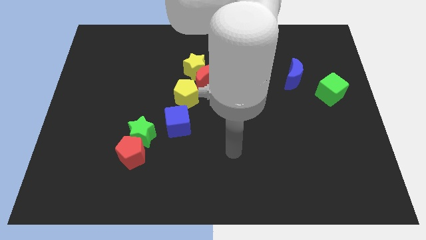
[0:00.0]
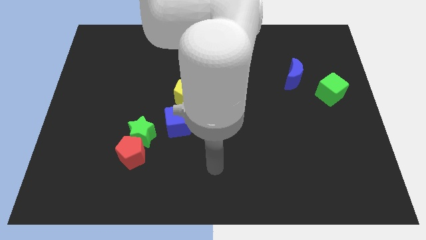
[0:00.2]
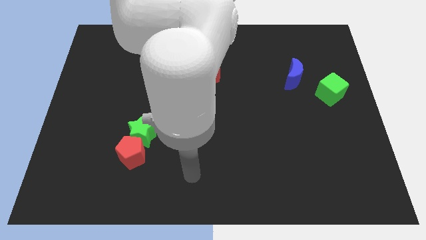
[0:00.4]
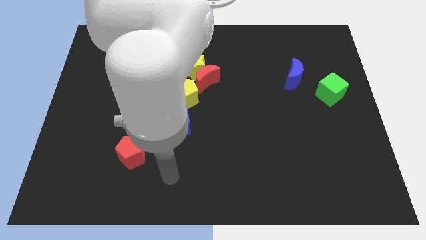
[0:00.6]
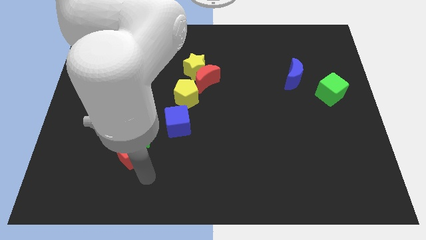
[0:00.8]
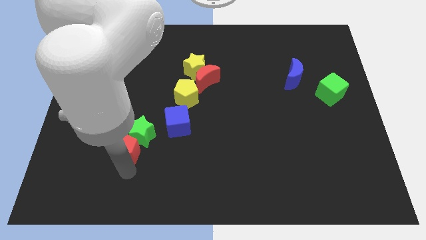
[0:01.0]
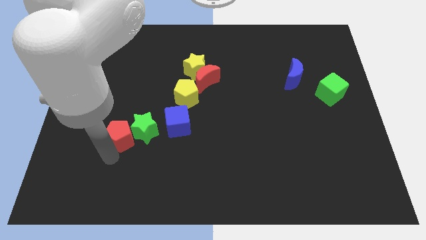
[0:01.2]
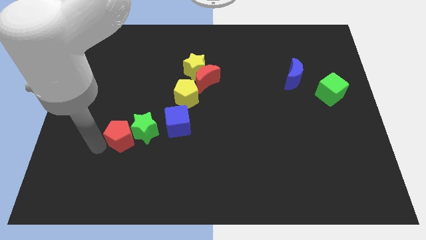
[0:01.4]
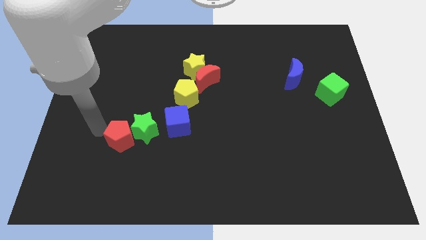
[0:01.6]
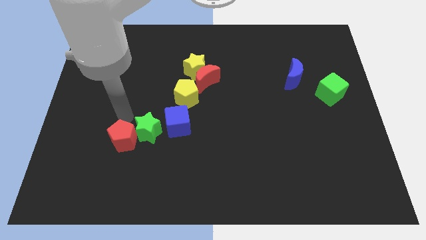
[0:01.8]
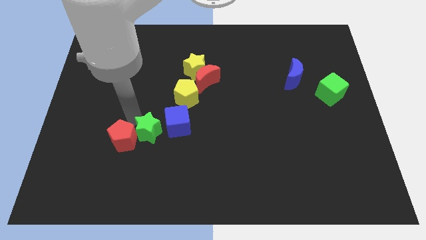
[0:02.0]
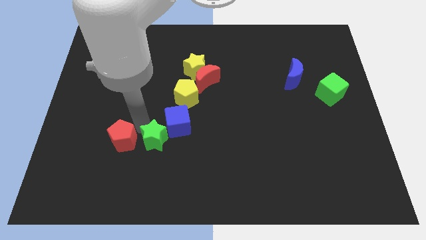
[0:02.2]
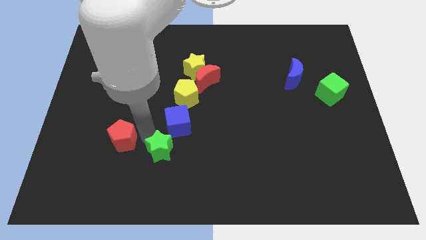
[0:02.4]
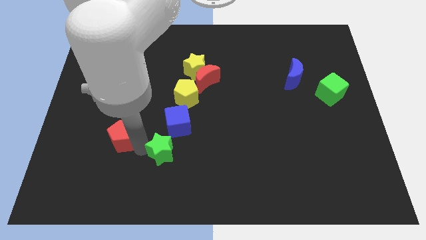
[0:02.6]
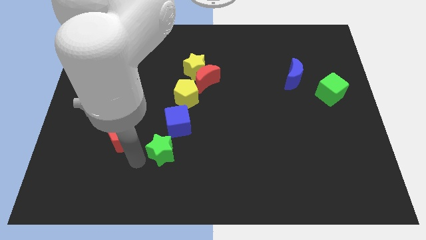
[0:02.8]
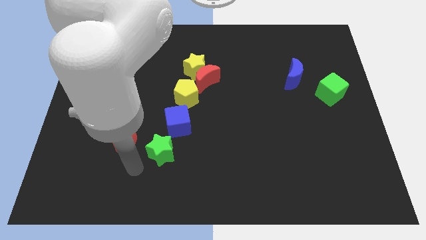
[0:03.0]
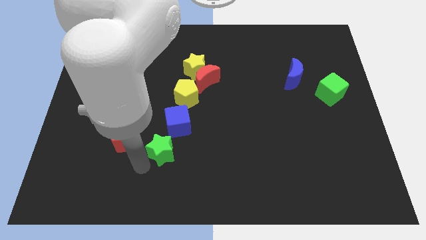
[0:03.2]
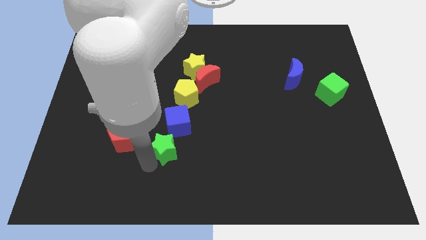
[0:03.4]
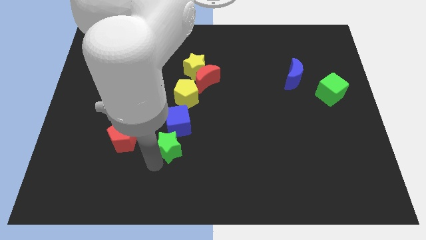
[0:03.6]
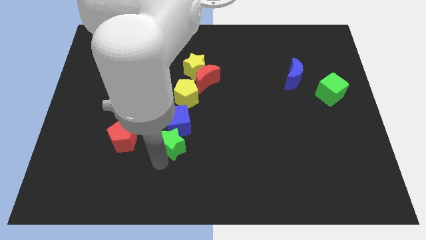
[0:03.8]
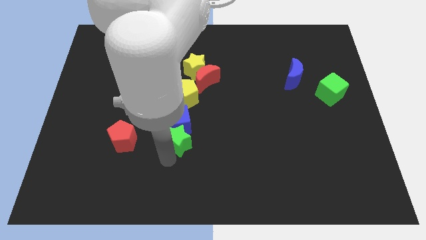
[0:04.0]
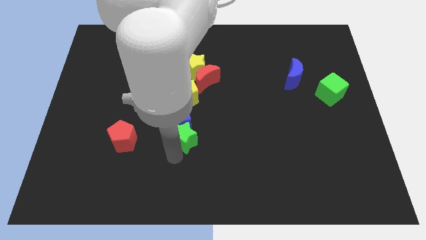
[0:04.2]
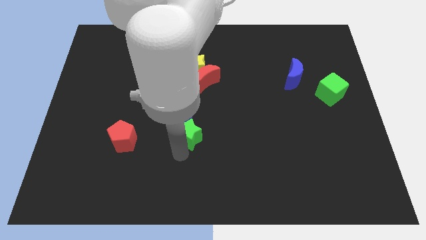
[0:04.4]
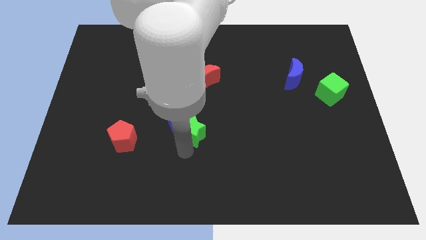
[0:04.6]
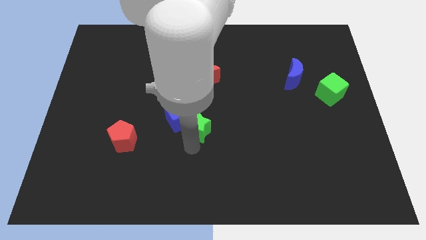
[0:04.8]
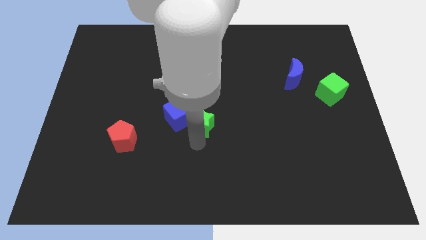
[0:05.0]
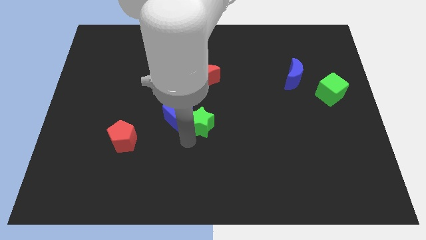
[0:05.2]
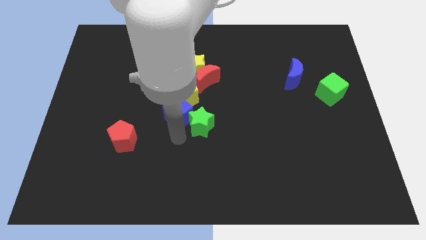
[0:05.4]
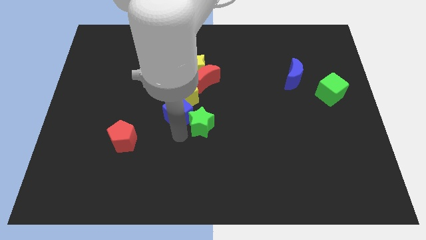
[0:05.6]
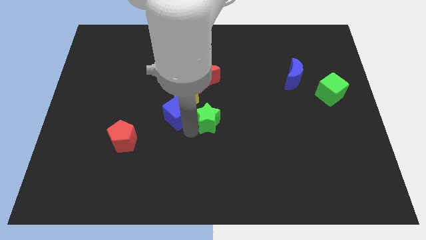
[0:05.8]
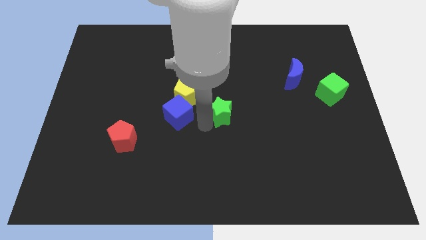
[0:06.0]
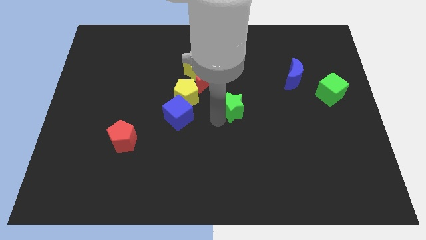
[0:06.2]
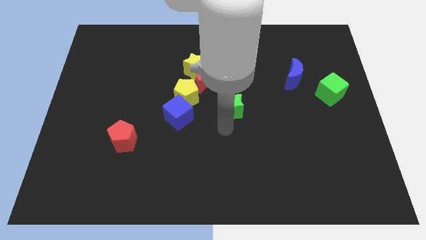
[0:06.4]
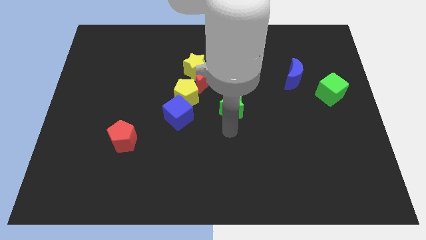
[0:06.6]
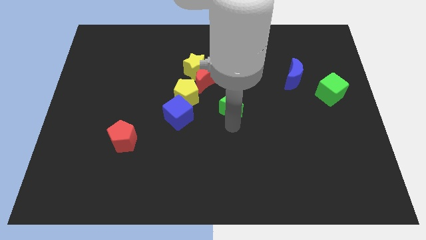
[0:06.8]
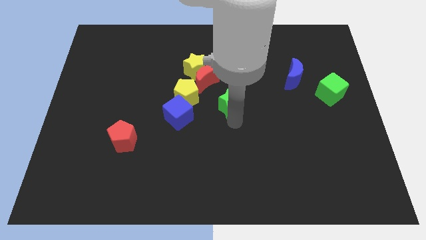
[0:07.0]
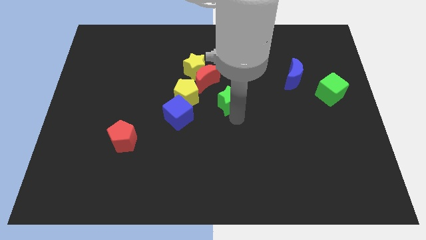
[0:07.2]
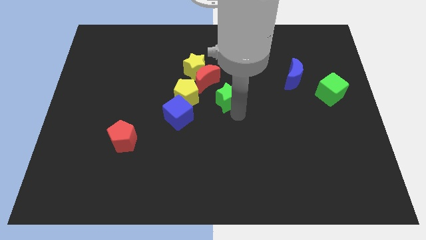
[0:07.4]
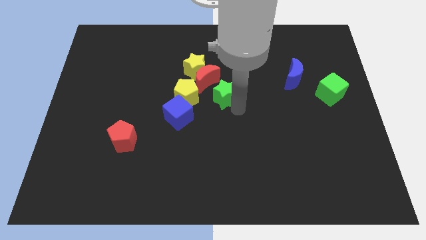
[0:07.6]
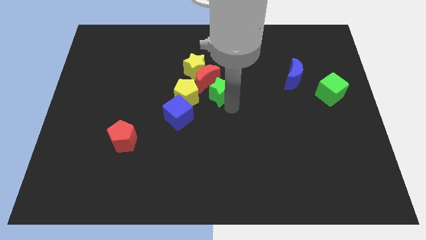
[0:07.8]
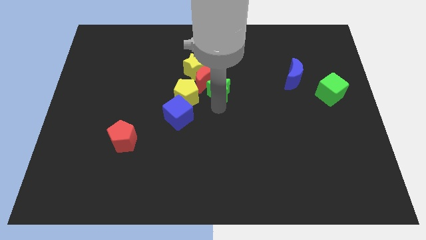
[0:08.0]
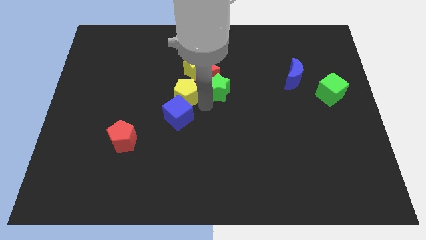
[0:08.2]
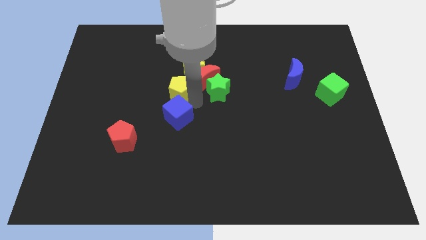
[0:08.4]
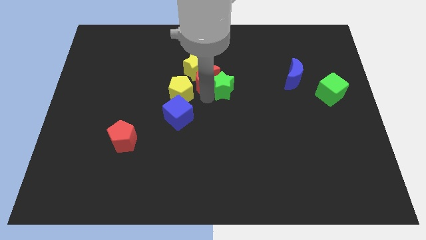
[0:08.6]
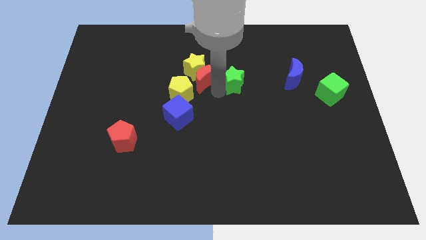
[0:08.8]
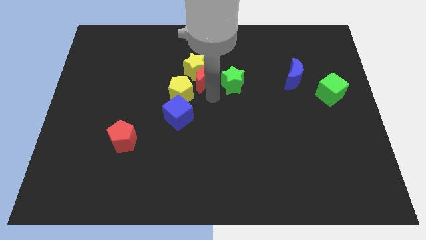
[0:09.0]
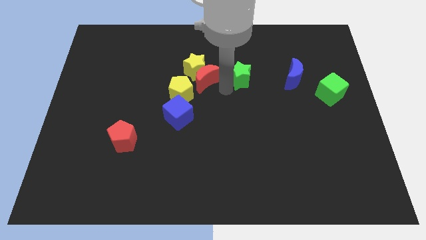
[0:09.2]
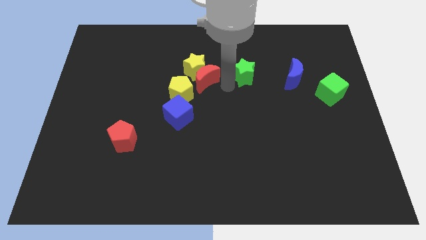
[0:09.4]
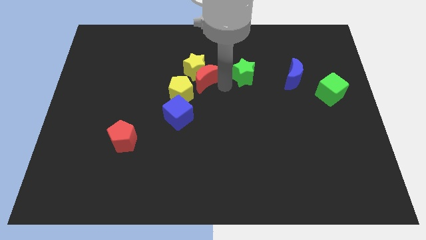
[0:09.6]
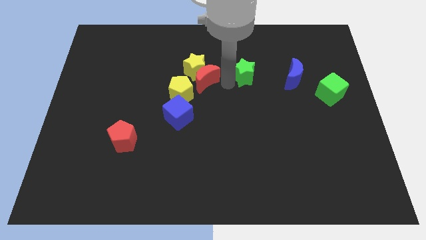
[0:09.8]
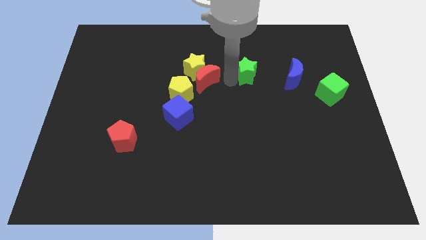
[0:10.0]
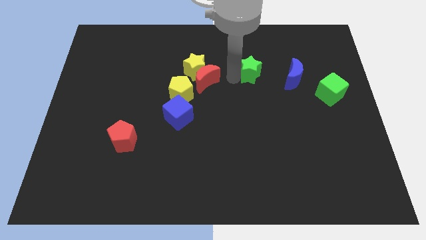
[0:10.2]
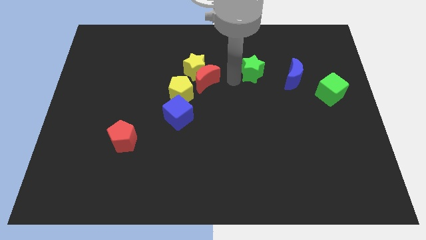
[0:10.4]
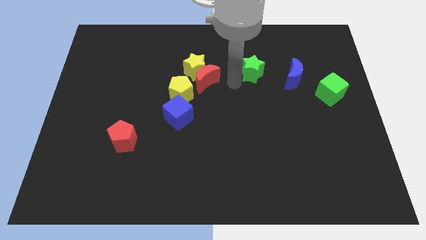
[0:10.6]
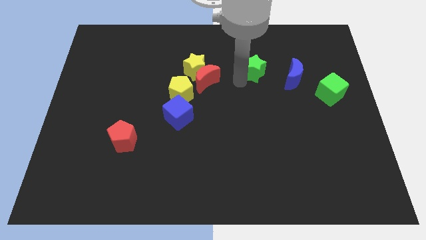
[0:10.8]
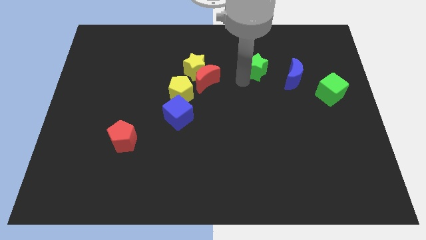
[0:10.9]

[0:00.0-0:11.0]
slide the green star to the top left of the blue moon

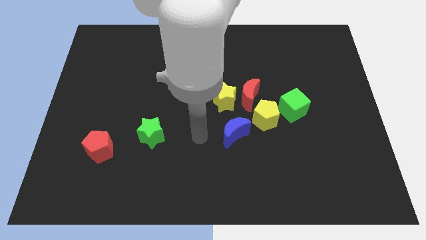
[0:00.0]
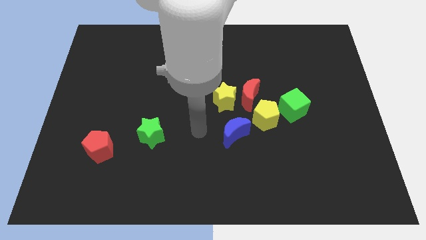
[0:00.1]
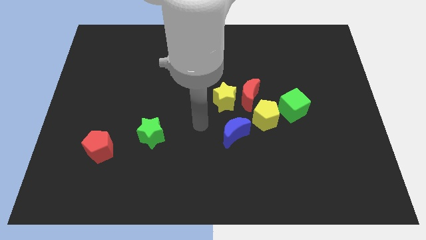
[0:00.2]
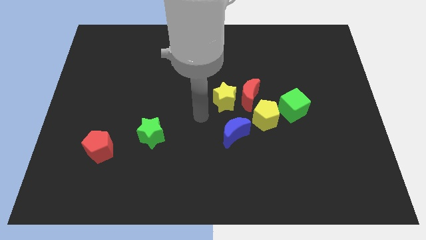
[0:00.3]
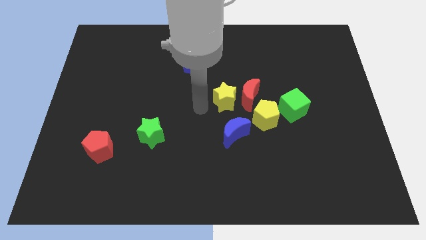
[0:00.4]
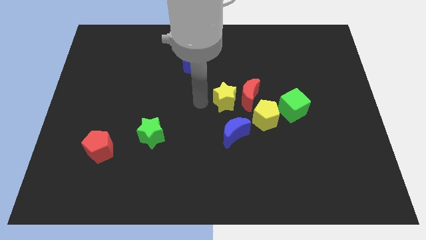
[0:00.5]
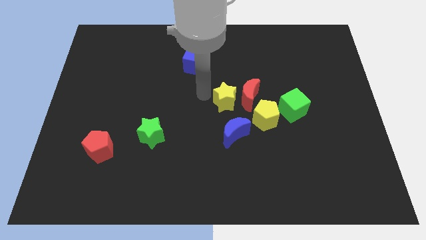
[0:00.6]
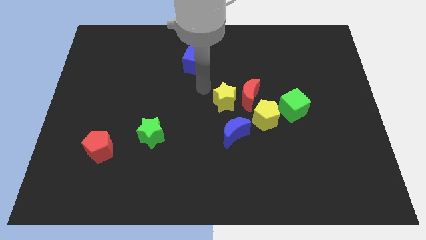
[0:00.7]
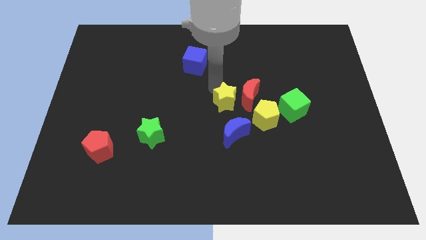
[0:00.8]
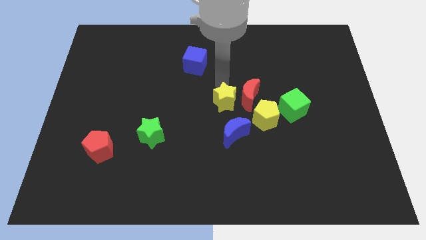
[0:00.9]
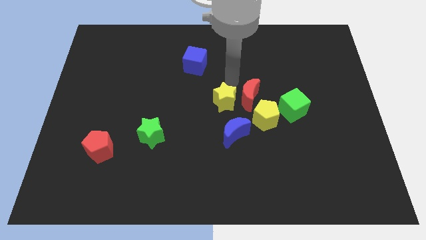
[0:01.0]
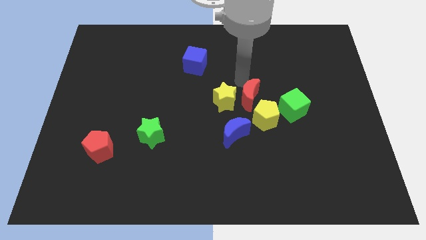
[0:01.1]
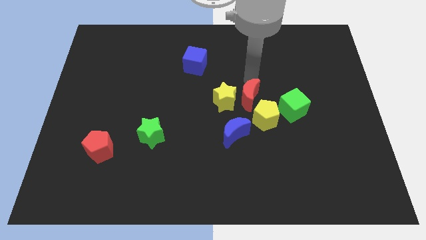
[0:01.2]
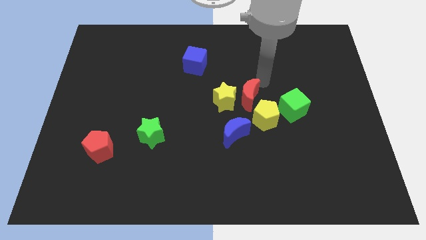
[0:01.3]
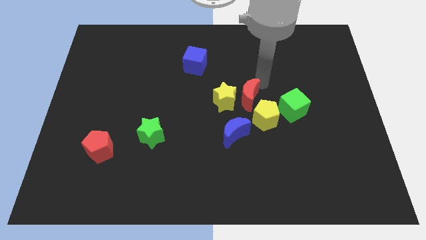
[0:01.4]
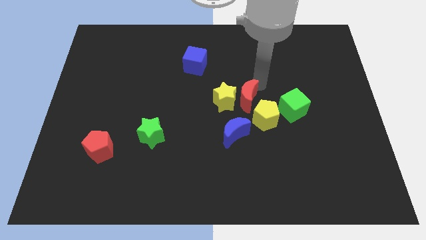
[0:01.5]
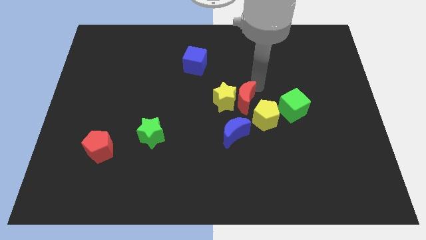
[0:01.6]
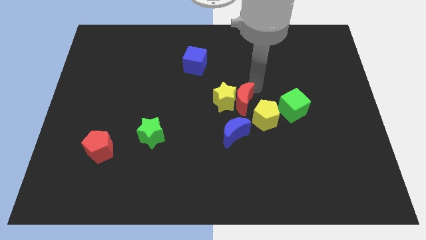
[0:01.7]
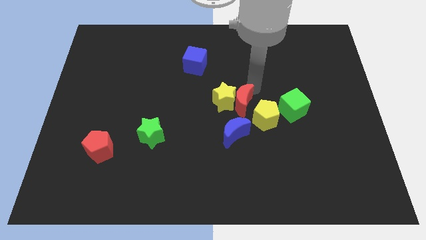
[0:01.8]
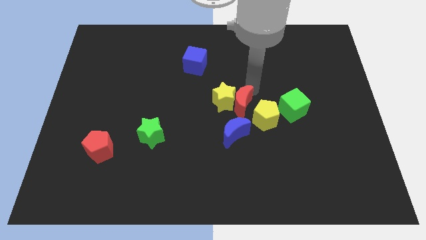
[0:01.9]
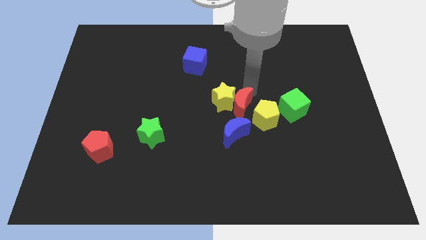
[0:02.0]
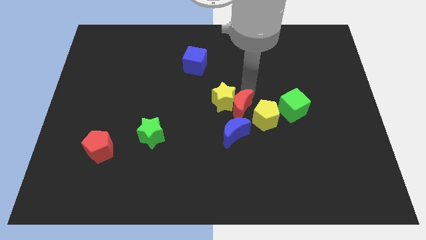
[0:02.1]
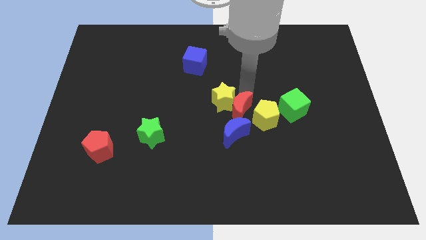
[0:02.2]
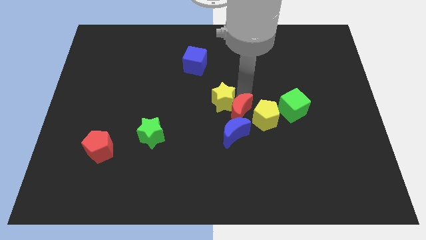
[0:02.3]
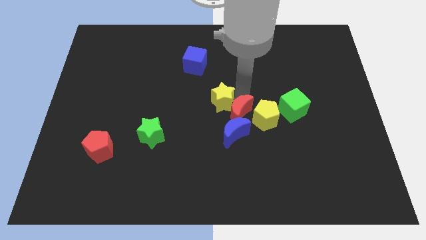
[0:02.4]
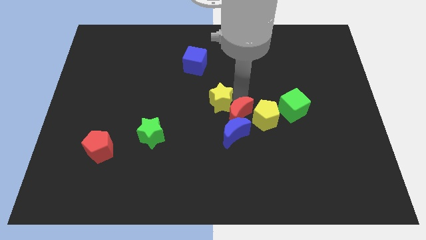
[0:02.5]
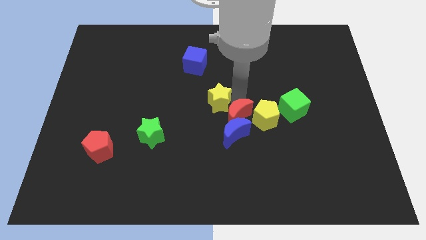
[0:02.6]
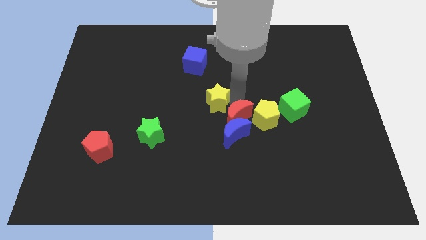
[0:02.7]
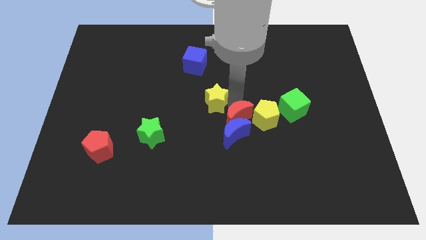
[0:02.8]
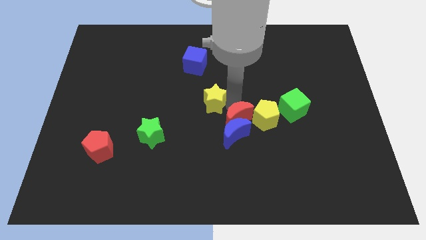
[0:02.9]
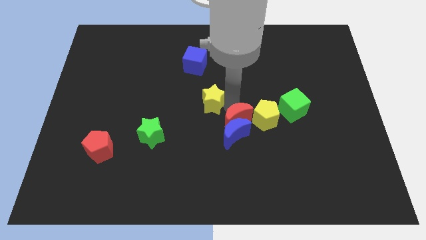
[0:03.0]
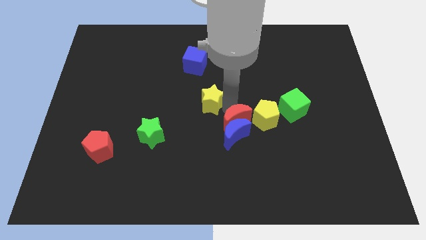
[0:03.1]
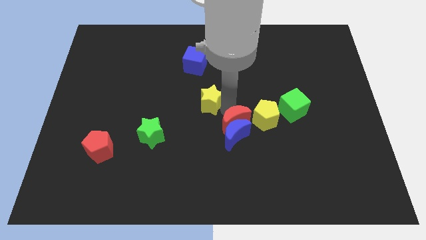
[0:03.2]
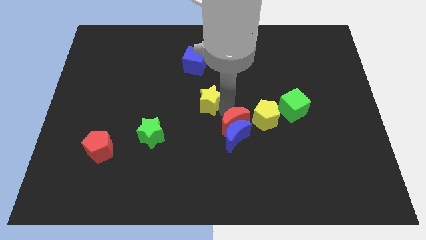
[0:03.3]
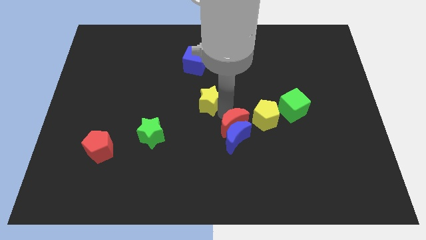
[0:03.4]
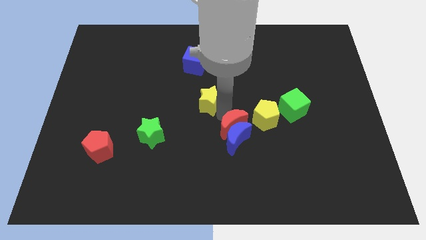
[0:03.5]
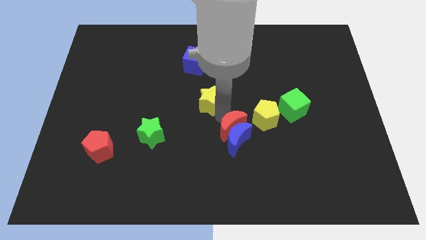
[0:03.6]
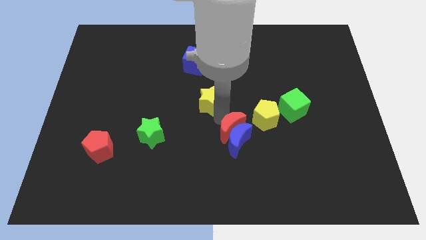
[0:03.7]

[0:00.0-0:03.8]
push the red moon to the left of the blue moon
